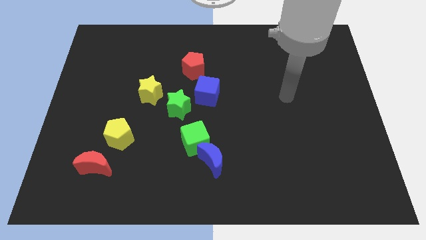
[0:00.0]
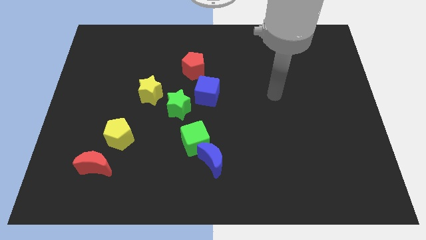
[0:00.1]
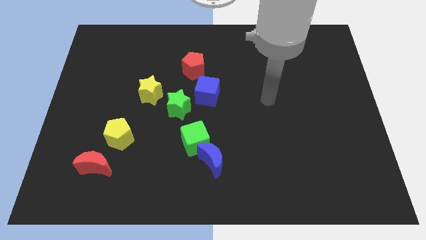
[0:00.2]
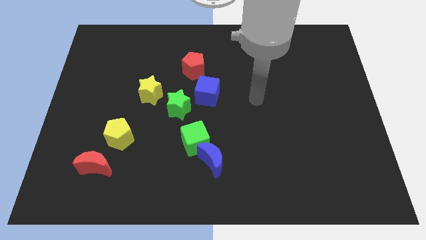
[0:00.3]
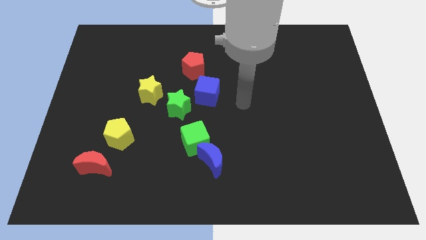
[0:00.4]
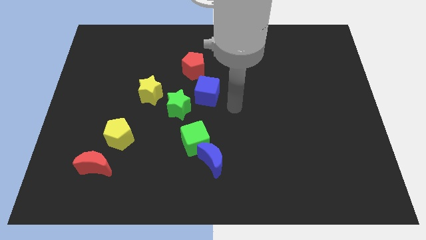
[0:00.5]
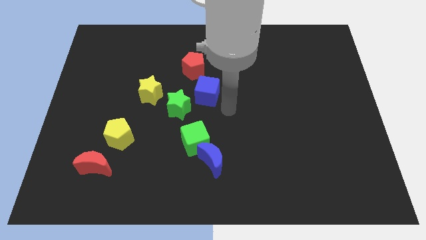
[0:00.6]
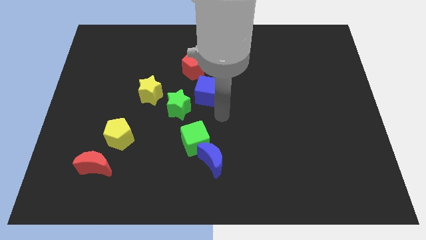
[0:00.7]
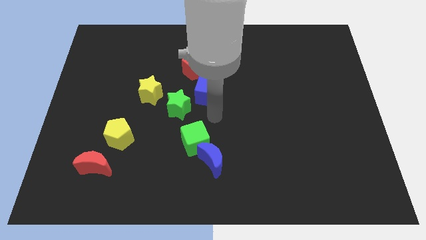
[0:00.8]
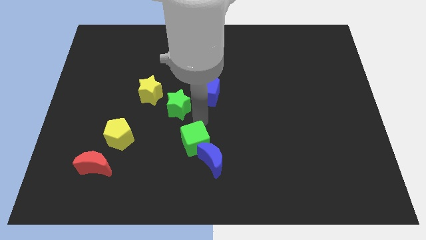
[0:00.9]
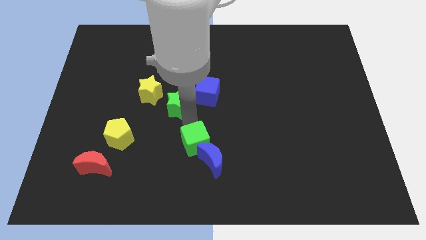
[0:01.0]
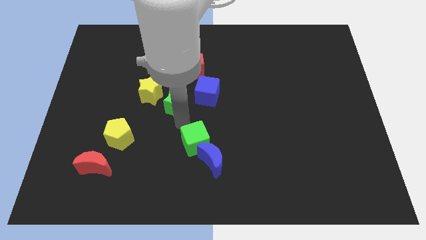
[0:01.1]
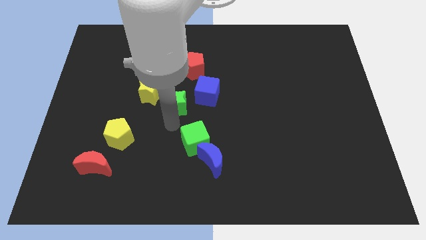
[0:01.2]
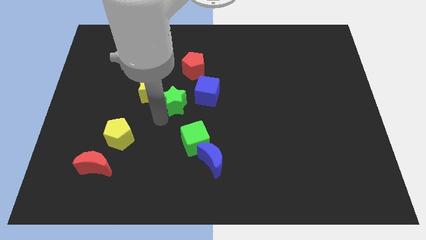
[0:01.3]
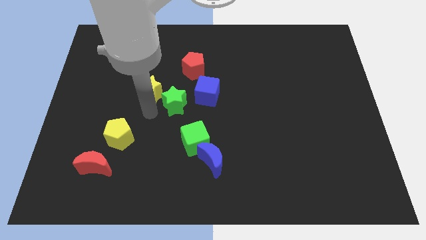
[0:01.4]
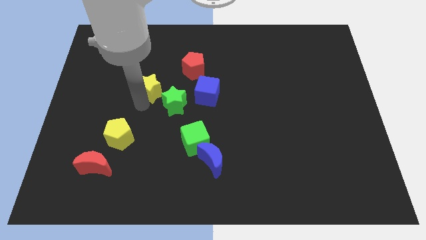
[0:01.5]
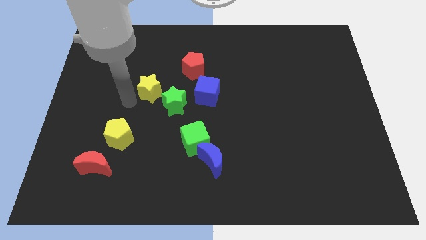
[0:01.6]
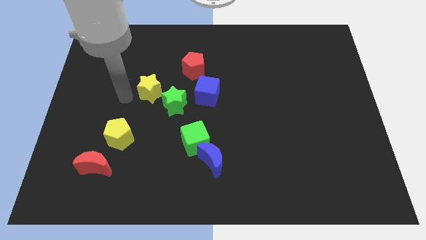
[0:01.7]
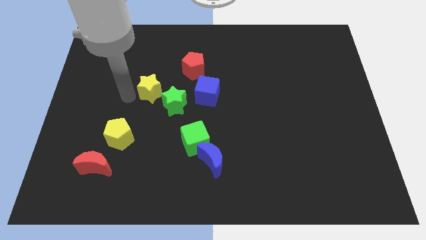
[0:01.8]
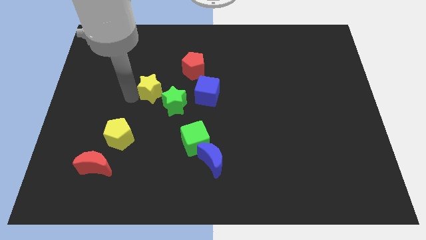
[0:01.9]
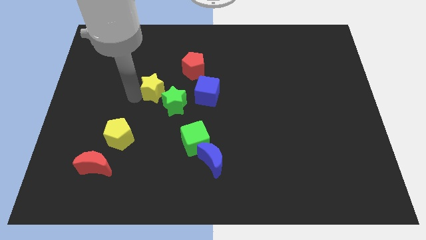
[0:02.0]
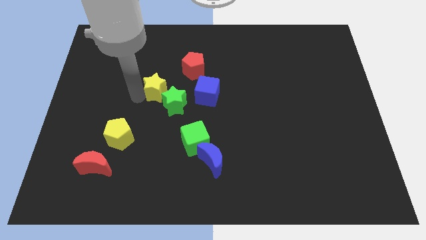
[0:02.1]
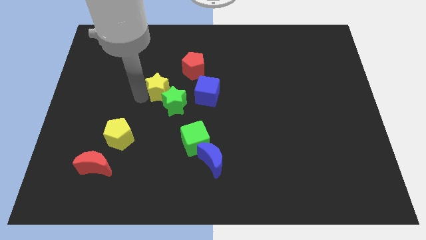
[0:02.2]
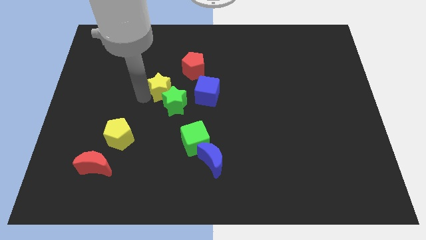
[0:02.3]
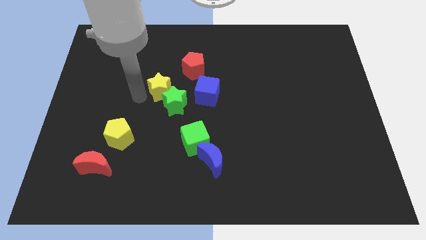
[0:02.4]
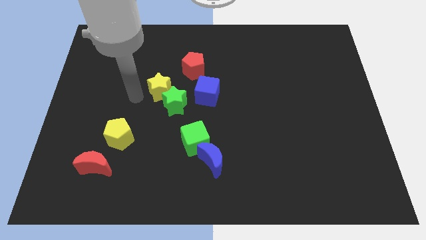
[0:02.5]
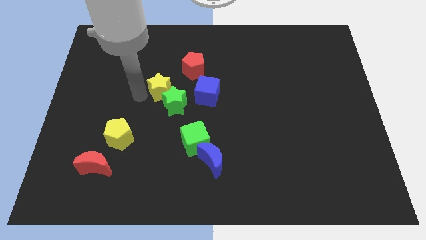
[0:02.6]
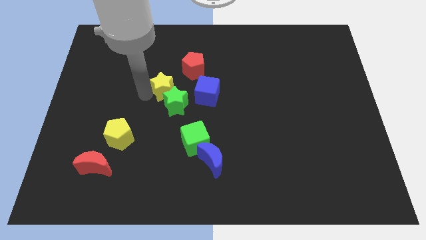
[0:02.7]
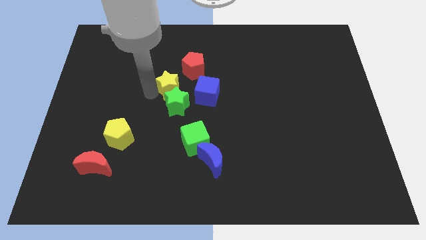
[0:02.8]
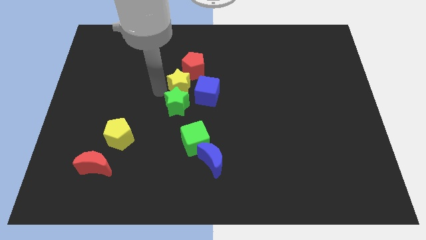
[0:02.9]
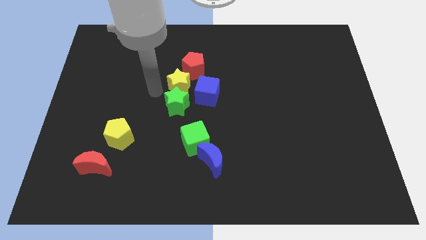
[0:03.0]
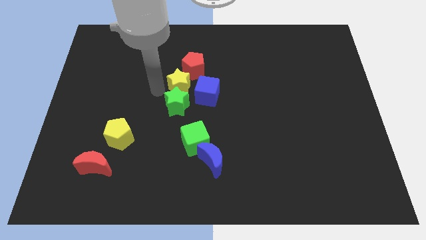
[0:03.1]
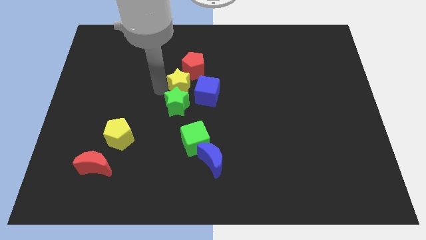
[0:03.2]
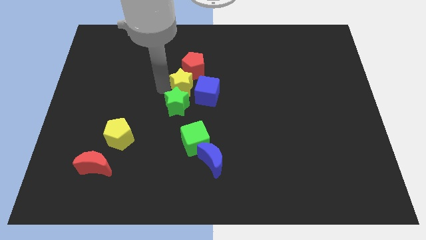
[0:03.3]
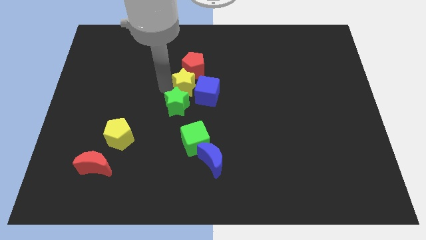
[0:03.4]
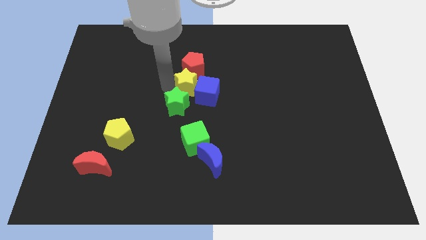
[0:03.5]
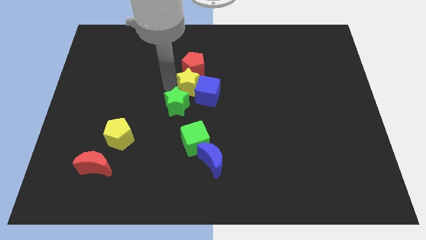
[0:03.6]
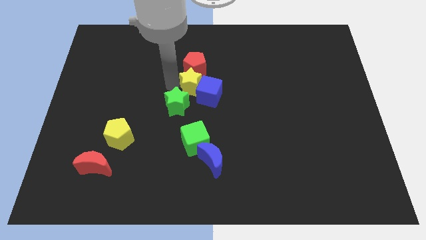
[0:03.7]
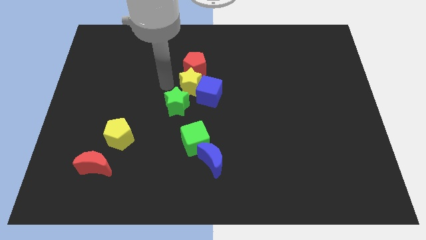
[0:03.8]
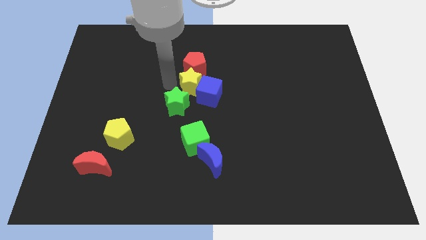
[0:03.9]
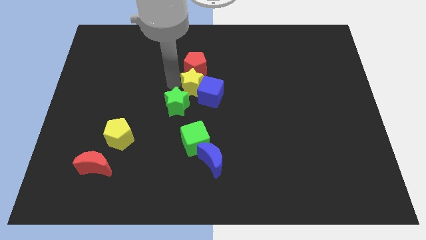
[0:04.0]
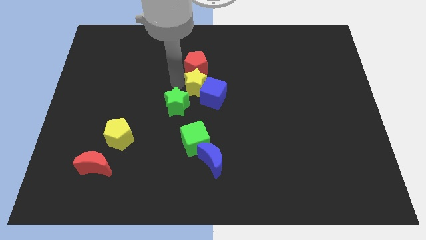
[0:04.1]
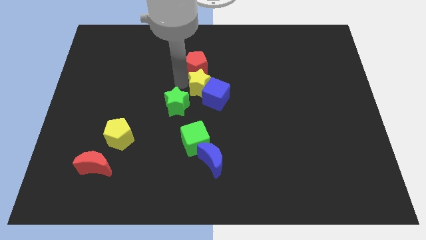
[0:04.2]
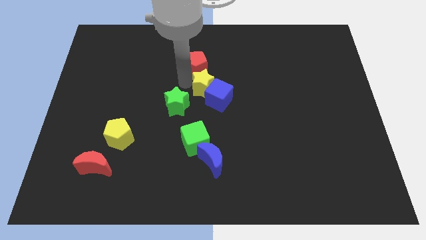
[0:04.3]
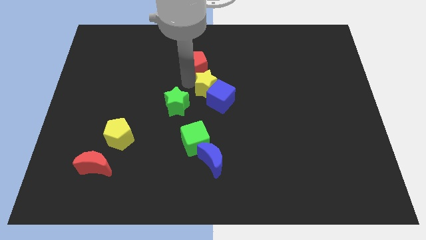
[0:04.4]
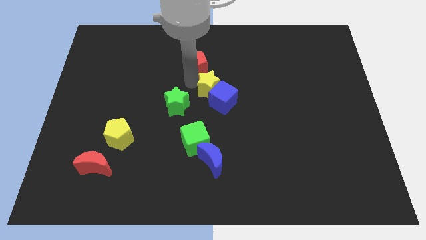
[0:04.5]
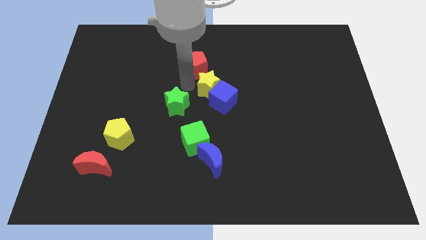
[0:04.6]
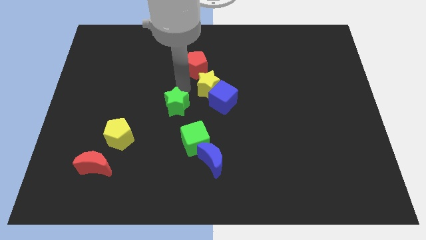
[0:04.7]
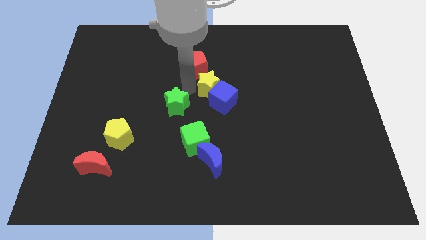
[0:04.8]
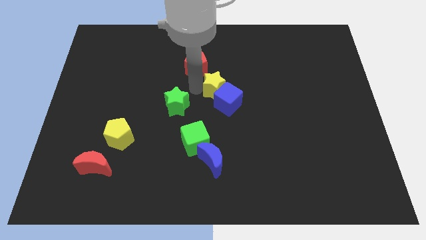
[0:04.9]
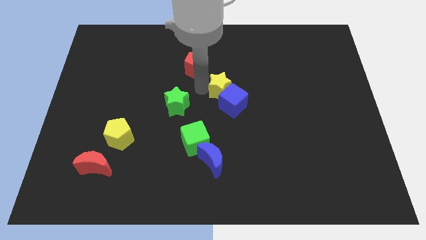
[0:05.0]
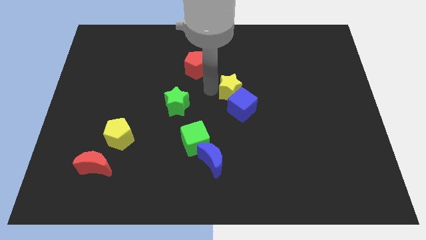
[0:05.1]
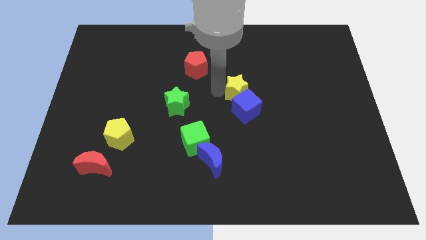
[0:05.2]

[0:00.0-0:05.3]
push the yellow star right

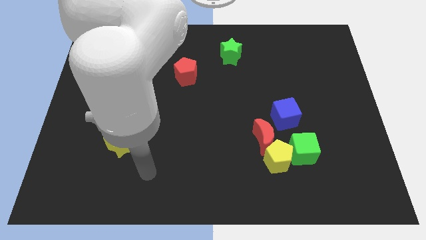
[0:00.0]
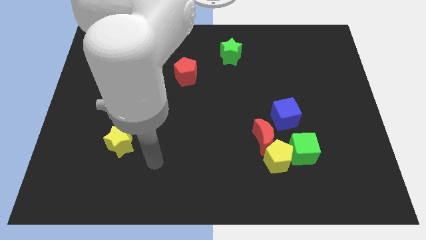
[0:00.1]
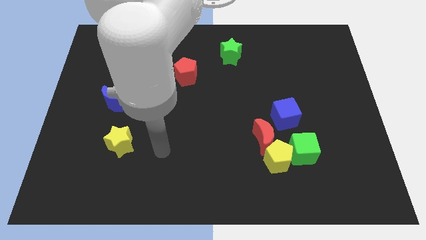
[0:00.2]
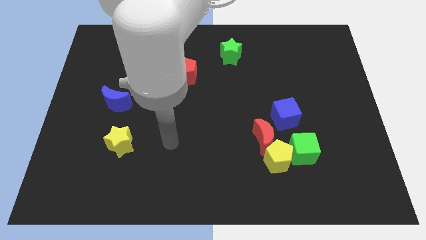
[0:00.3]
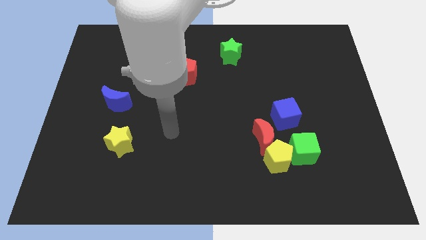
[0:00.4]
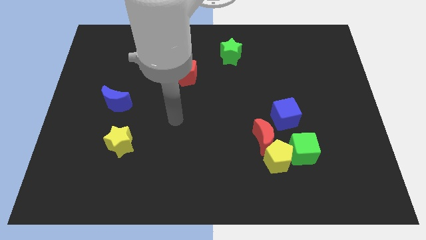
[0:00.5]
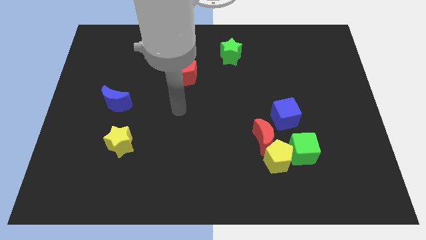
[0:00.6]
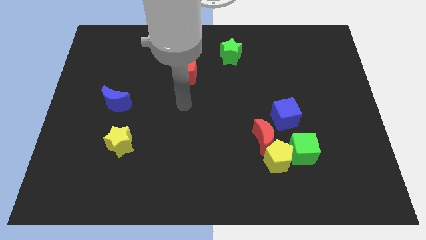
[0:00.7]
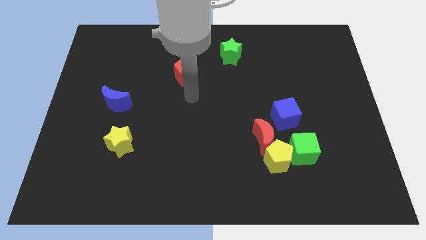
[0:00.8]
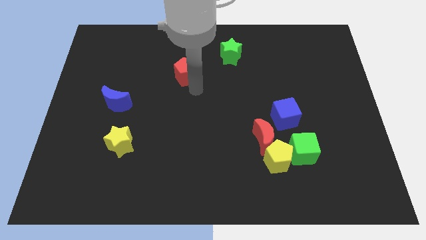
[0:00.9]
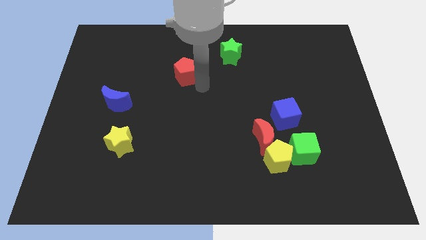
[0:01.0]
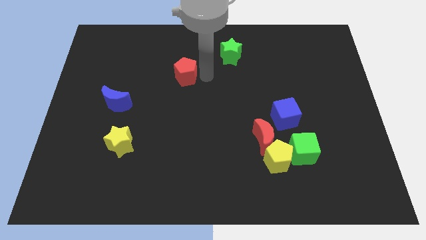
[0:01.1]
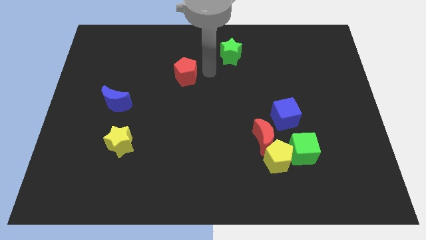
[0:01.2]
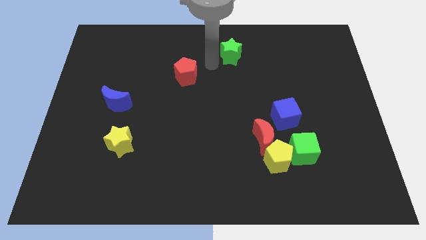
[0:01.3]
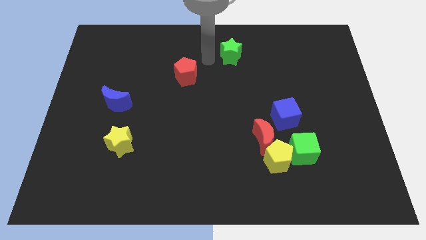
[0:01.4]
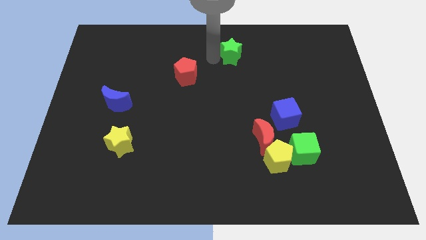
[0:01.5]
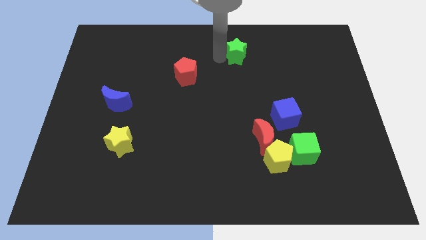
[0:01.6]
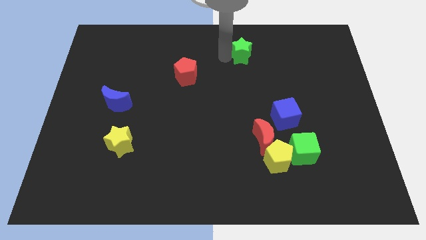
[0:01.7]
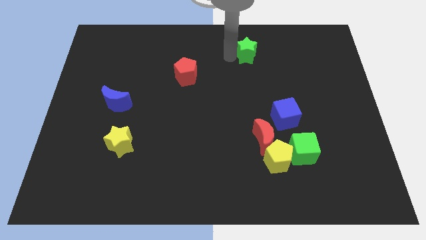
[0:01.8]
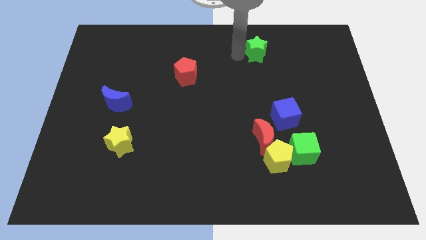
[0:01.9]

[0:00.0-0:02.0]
slightly slide the green star to the right

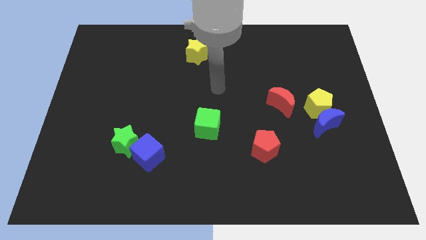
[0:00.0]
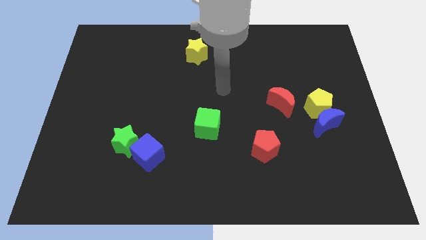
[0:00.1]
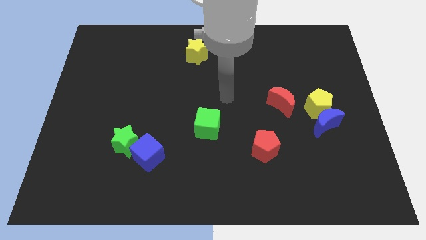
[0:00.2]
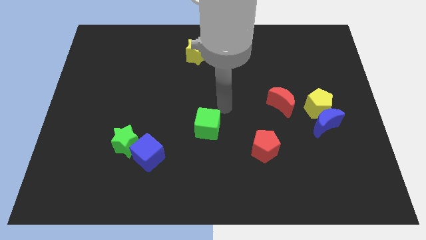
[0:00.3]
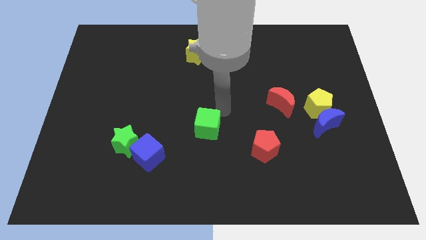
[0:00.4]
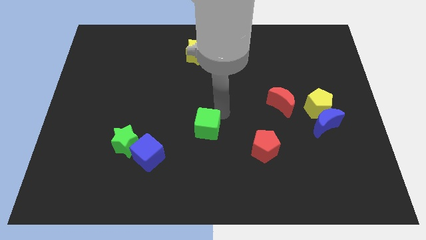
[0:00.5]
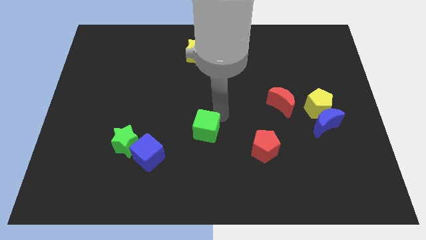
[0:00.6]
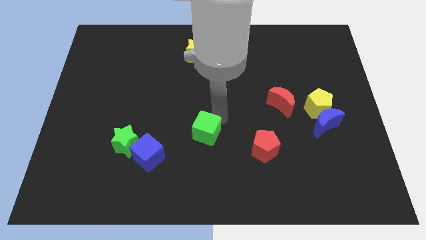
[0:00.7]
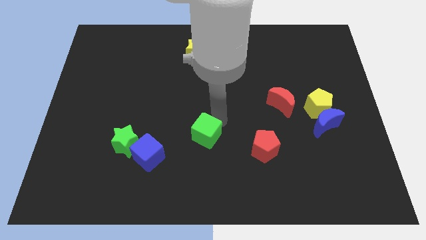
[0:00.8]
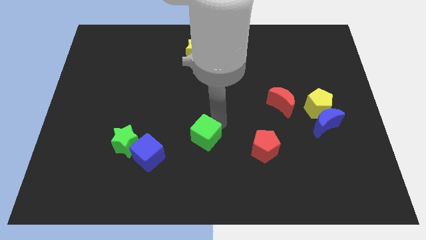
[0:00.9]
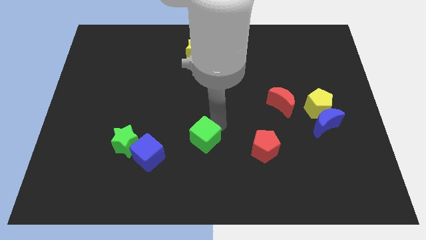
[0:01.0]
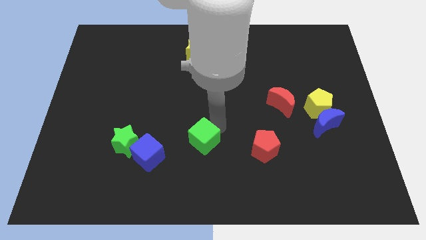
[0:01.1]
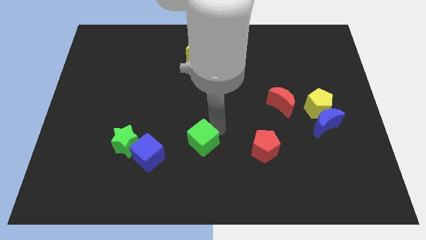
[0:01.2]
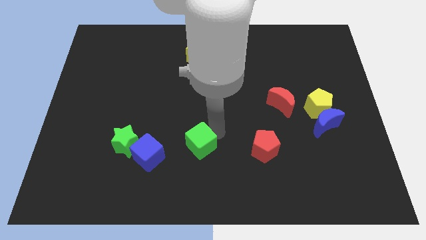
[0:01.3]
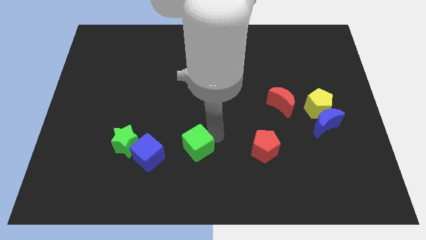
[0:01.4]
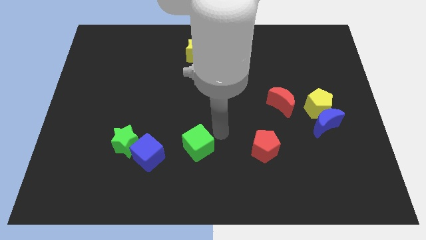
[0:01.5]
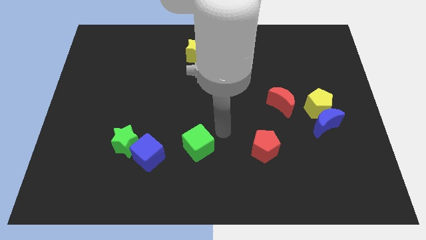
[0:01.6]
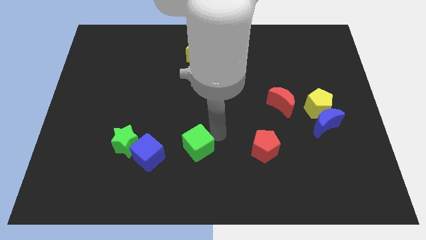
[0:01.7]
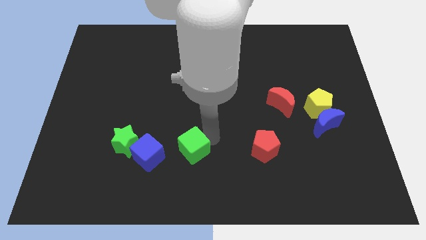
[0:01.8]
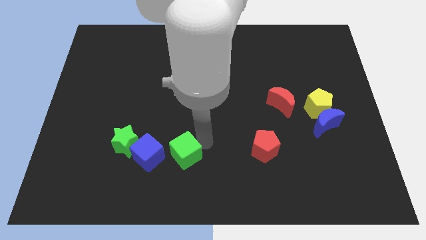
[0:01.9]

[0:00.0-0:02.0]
push the green cube down and to the left diagonally slightly
